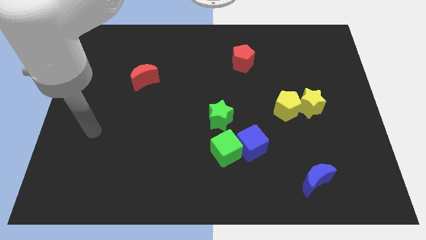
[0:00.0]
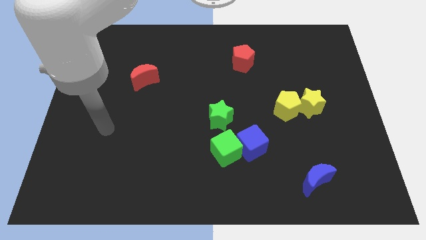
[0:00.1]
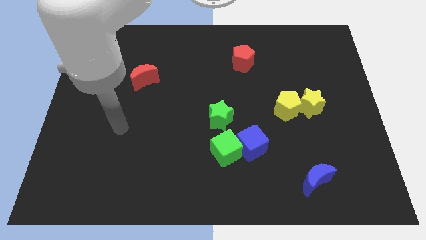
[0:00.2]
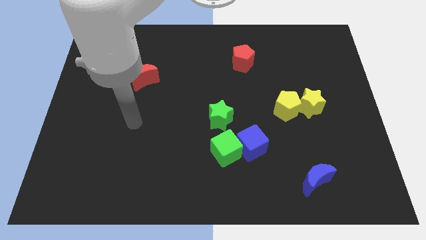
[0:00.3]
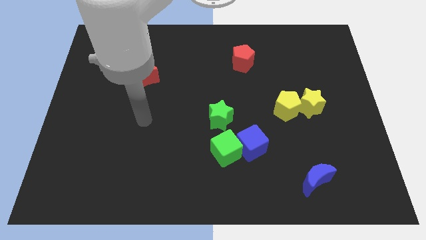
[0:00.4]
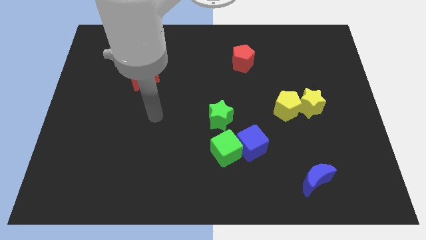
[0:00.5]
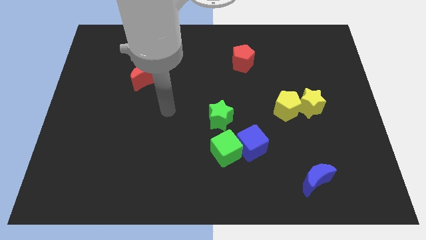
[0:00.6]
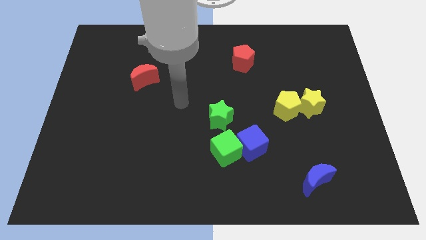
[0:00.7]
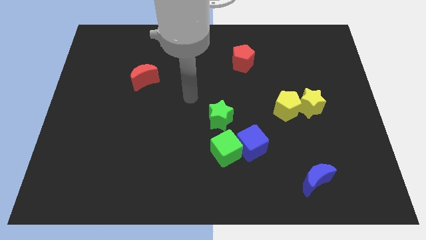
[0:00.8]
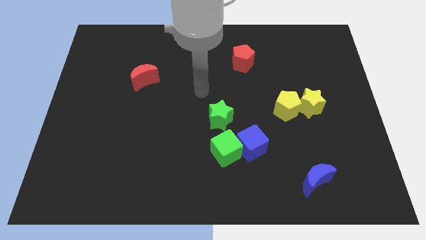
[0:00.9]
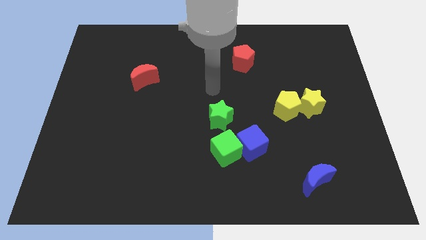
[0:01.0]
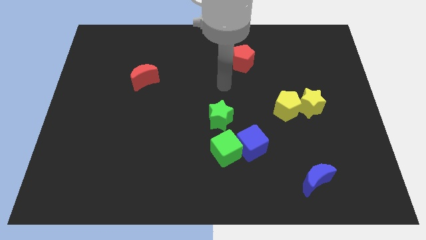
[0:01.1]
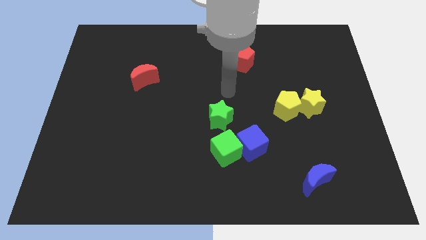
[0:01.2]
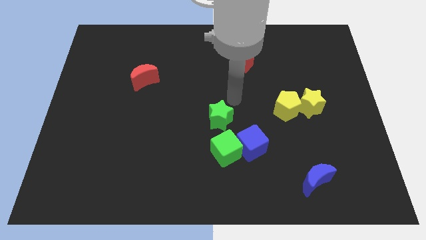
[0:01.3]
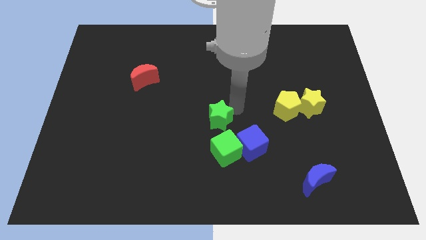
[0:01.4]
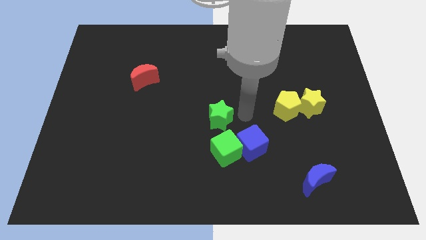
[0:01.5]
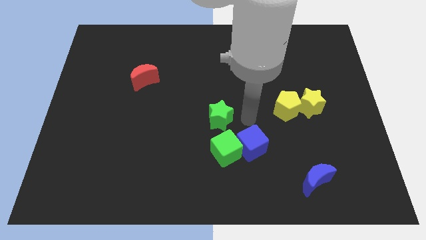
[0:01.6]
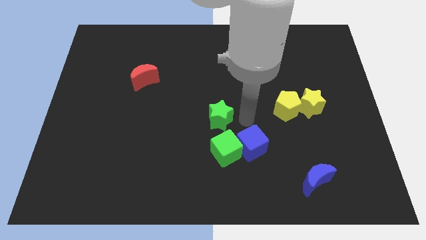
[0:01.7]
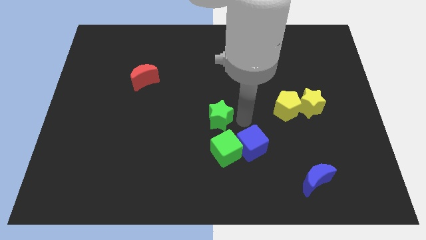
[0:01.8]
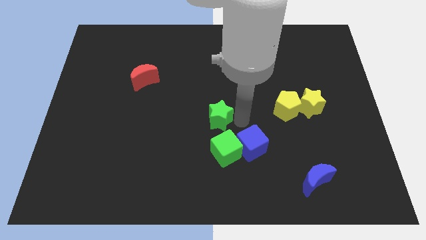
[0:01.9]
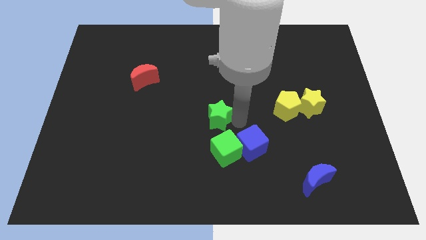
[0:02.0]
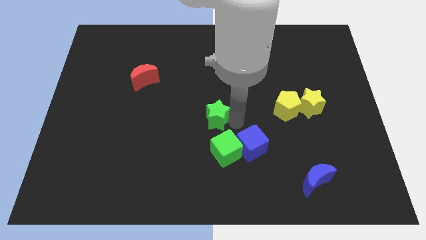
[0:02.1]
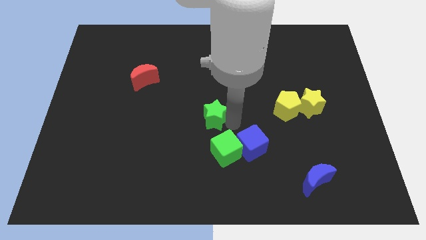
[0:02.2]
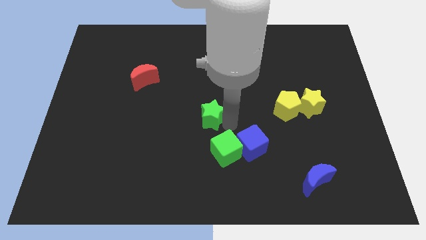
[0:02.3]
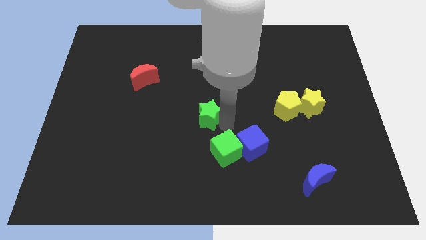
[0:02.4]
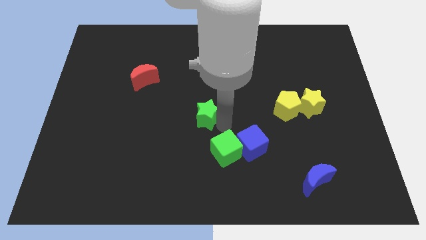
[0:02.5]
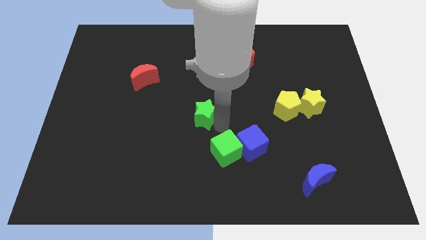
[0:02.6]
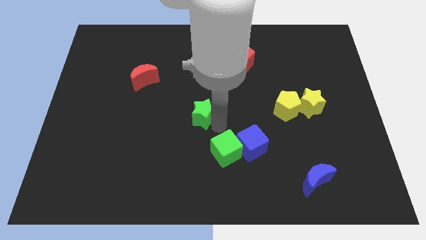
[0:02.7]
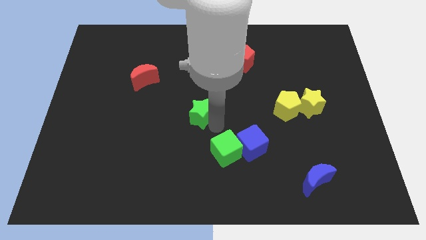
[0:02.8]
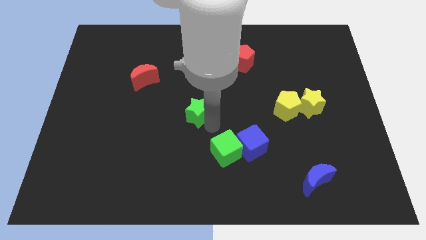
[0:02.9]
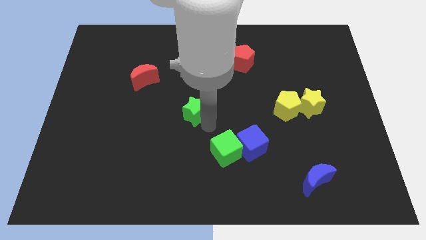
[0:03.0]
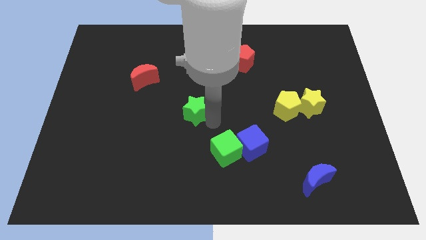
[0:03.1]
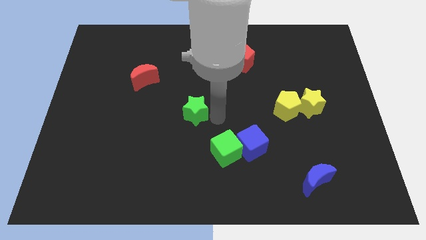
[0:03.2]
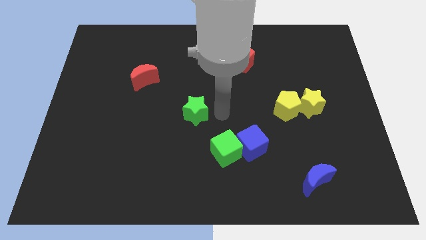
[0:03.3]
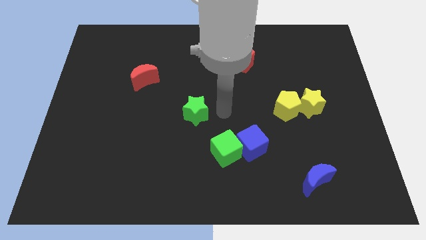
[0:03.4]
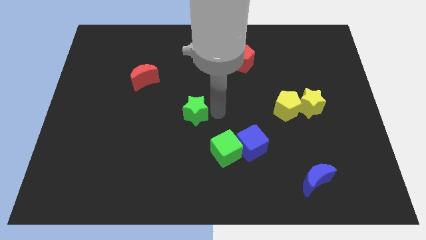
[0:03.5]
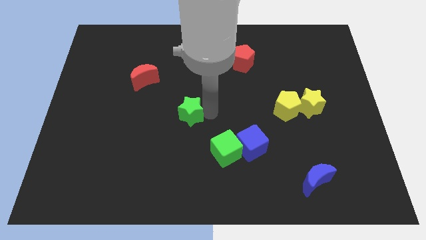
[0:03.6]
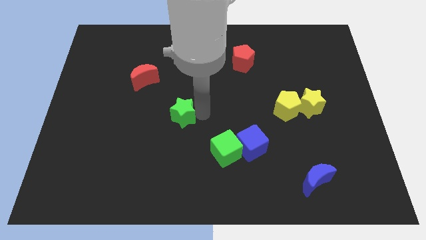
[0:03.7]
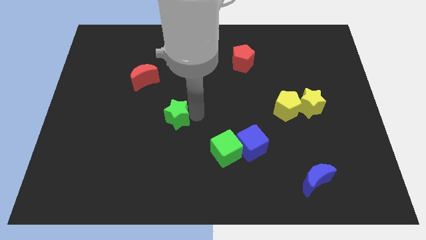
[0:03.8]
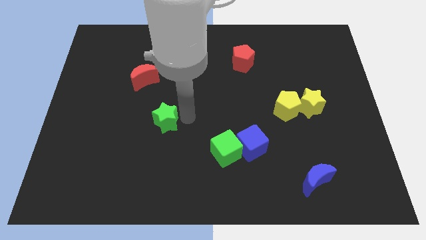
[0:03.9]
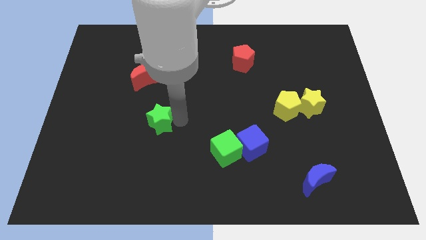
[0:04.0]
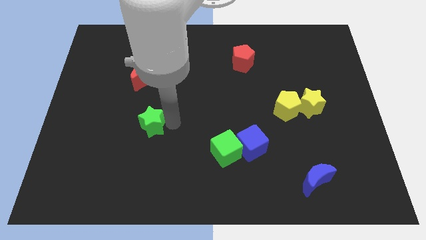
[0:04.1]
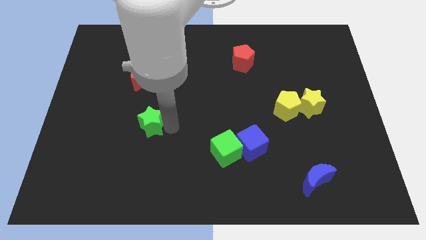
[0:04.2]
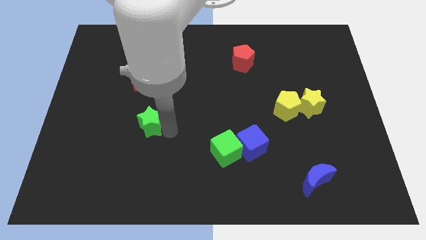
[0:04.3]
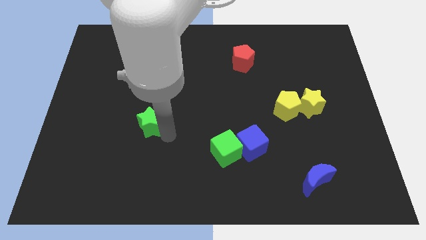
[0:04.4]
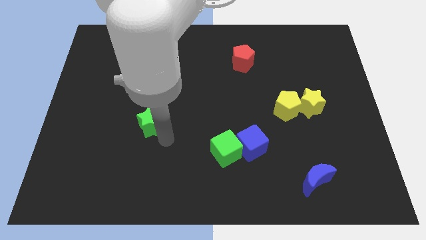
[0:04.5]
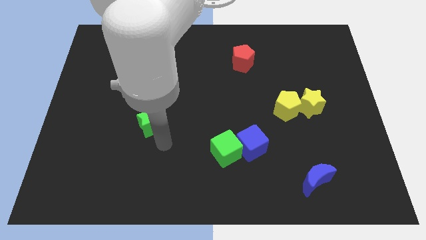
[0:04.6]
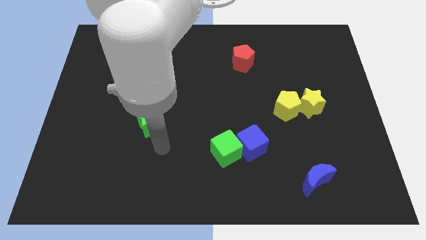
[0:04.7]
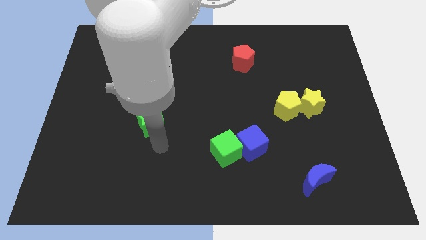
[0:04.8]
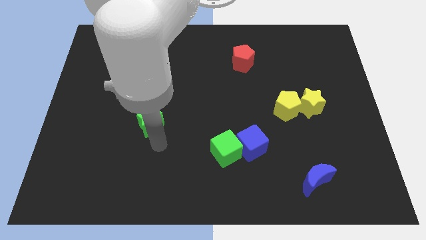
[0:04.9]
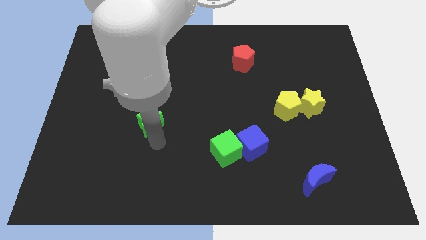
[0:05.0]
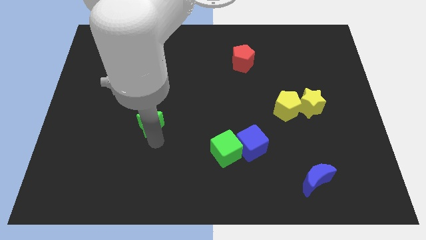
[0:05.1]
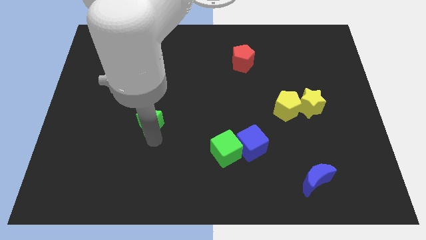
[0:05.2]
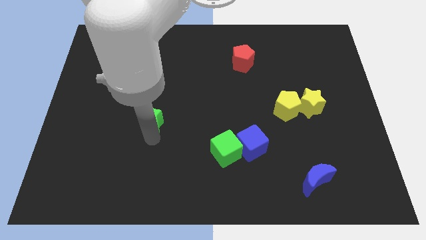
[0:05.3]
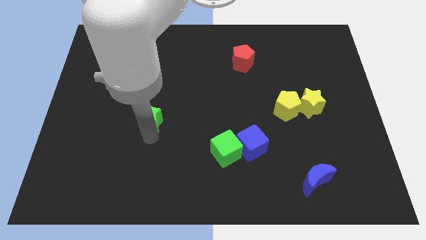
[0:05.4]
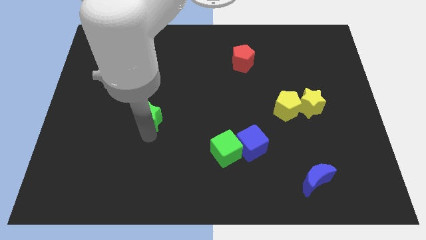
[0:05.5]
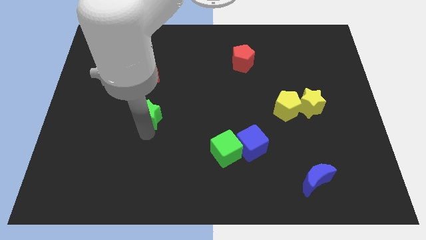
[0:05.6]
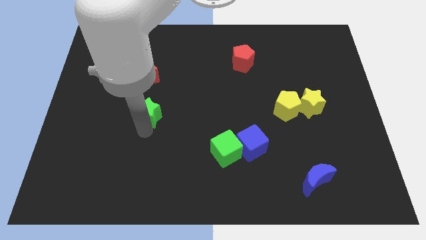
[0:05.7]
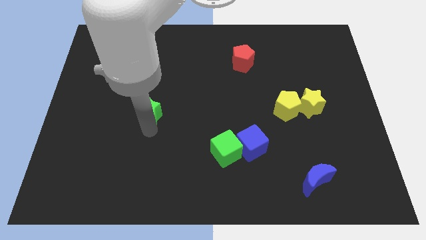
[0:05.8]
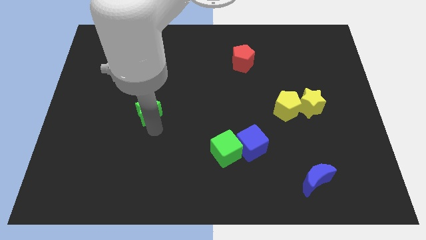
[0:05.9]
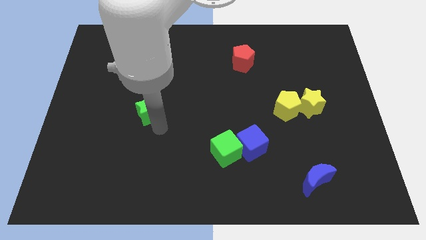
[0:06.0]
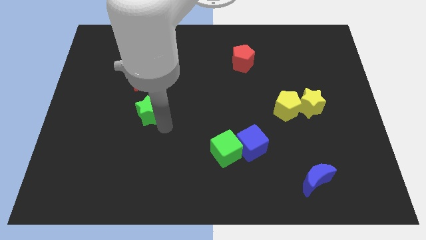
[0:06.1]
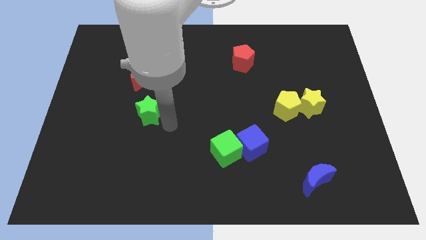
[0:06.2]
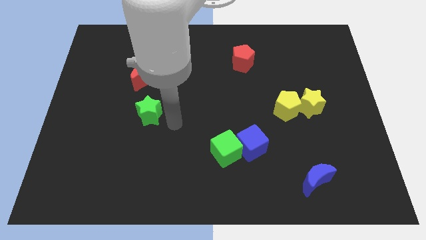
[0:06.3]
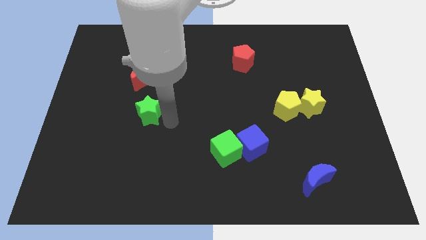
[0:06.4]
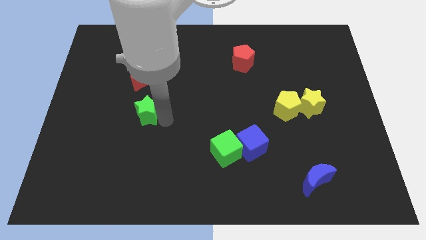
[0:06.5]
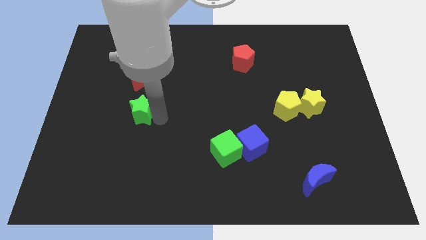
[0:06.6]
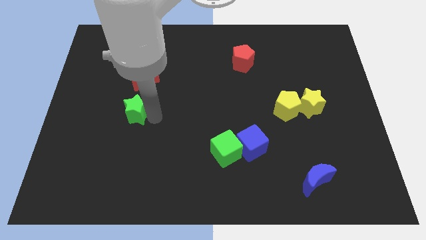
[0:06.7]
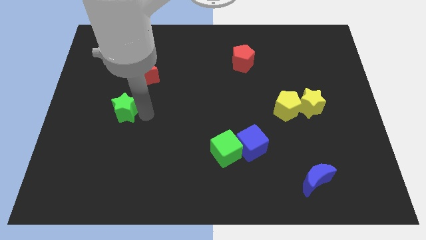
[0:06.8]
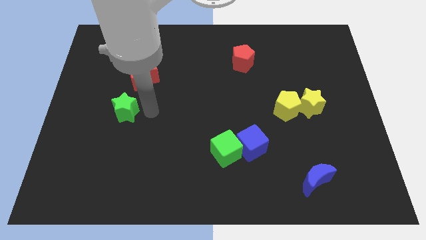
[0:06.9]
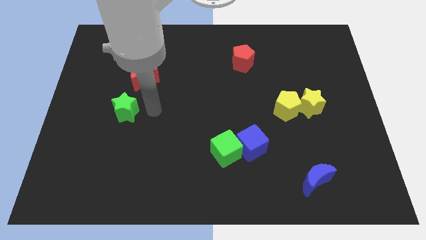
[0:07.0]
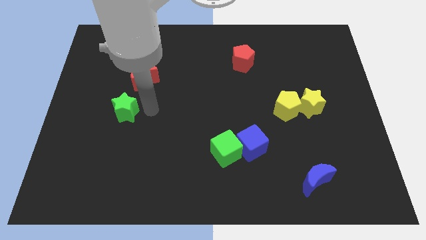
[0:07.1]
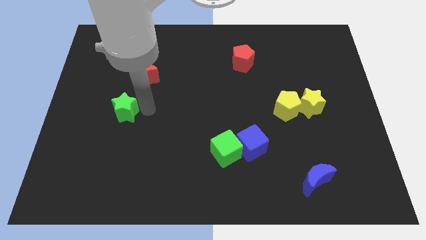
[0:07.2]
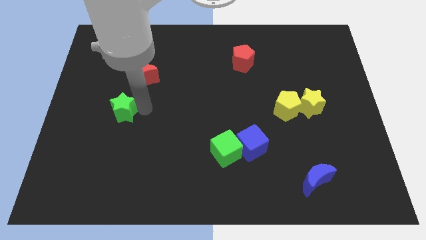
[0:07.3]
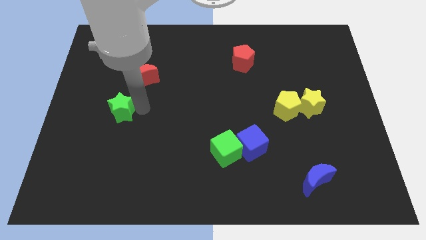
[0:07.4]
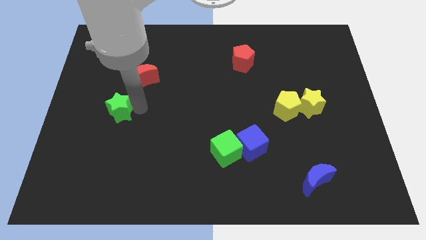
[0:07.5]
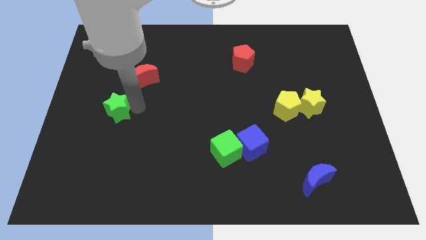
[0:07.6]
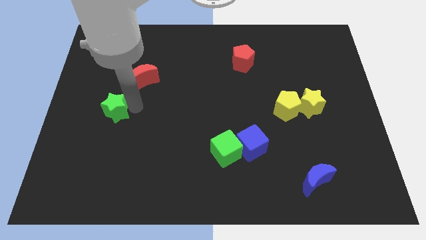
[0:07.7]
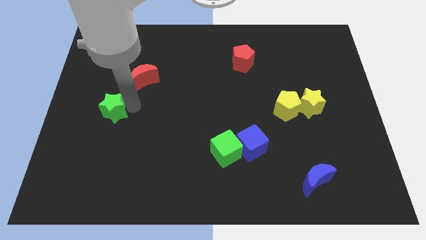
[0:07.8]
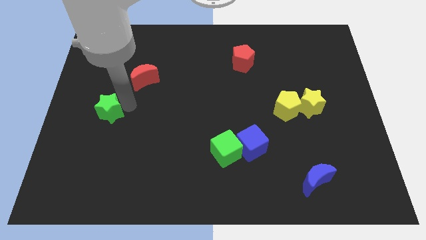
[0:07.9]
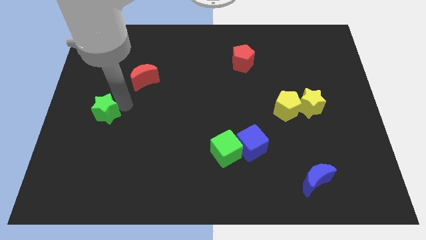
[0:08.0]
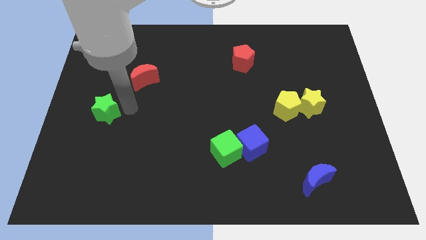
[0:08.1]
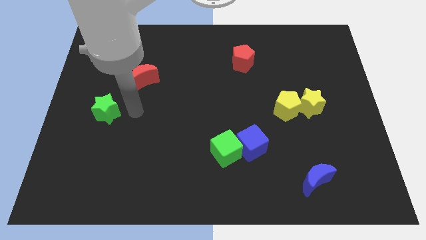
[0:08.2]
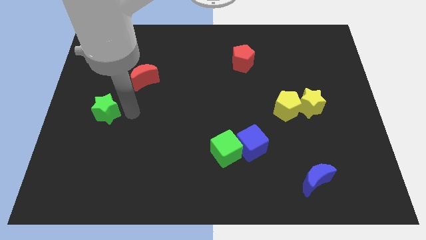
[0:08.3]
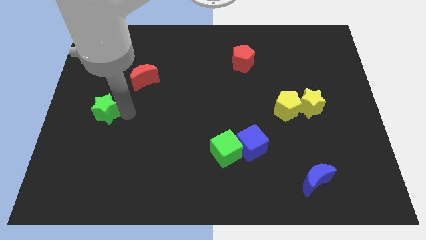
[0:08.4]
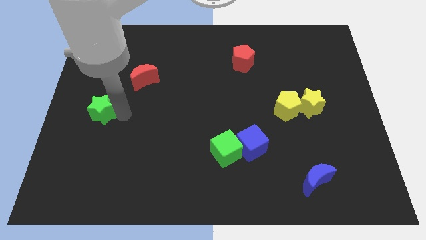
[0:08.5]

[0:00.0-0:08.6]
slide the green star to the left side
